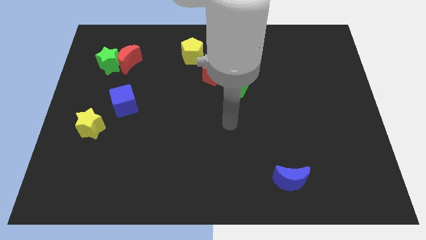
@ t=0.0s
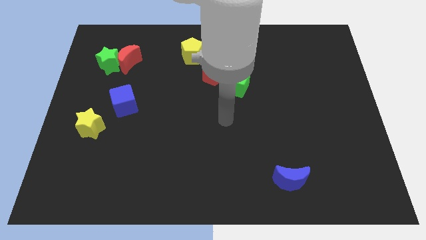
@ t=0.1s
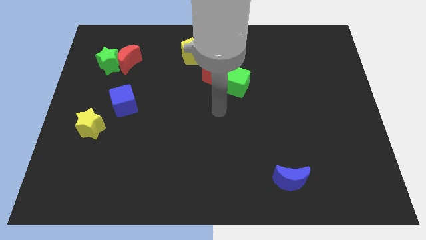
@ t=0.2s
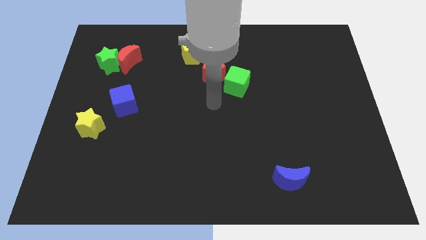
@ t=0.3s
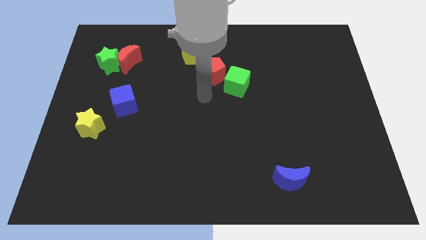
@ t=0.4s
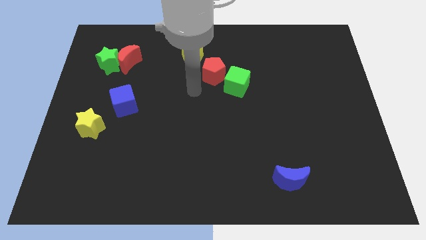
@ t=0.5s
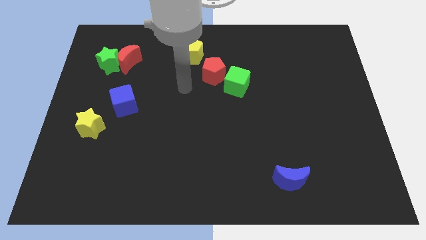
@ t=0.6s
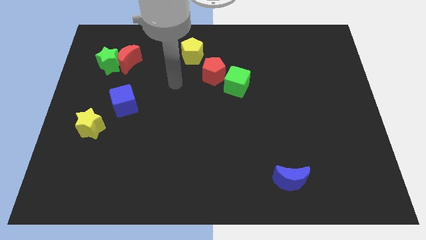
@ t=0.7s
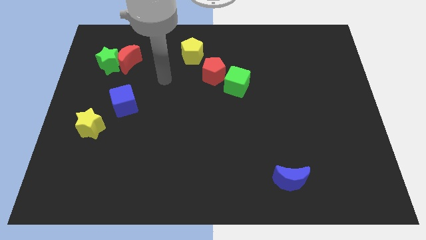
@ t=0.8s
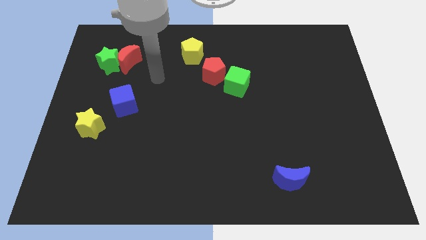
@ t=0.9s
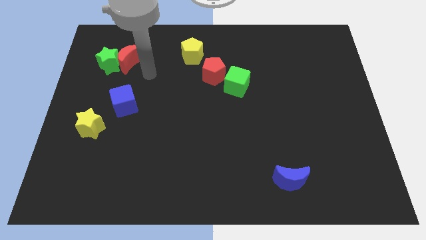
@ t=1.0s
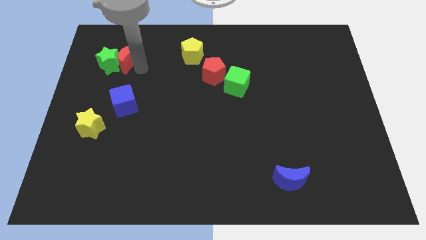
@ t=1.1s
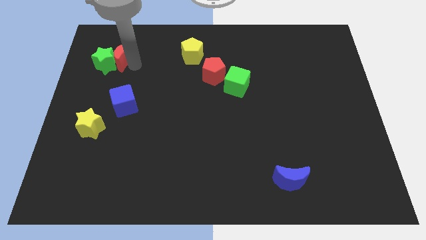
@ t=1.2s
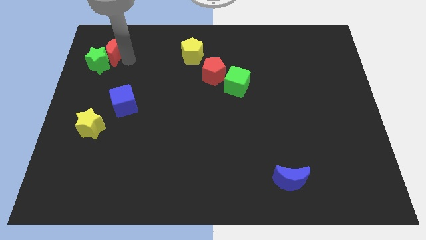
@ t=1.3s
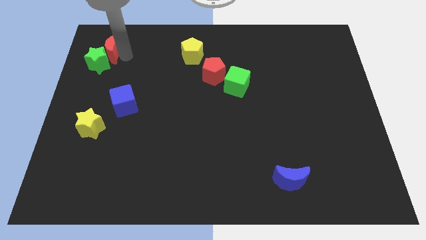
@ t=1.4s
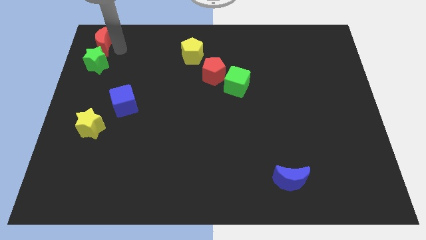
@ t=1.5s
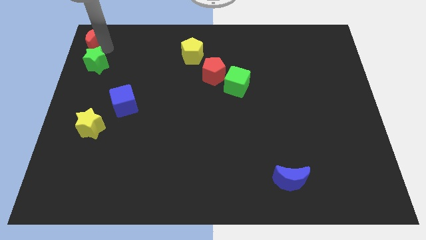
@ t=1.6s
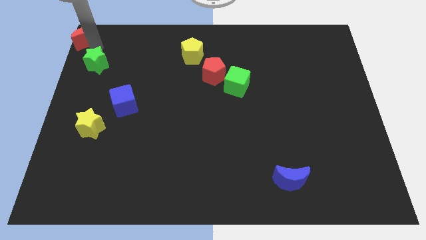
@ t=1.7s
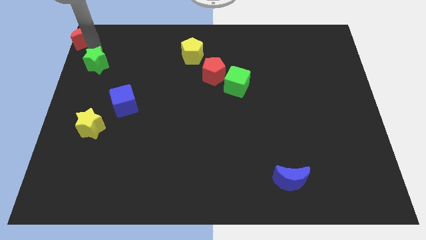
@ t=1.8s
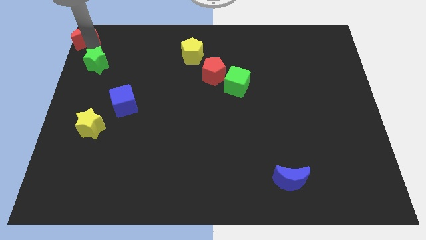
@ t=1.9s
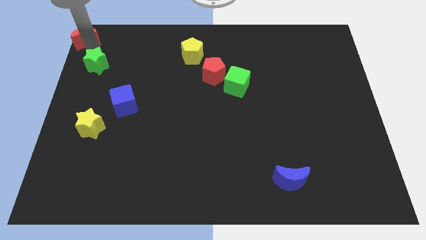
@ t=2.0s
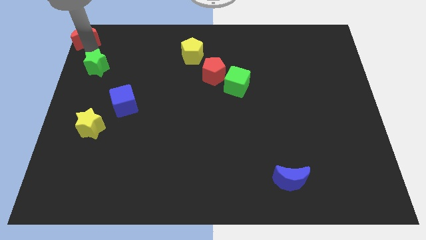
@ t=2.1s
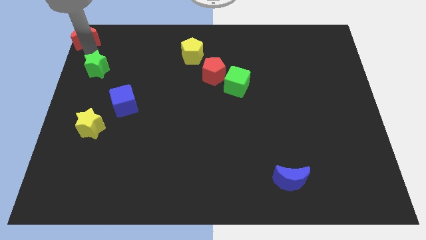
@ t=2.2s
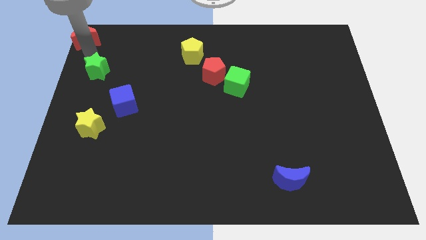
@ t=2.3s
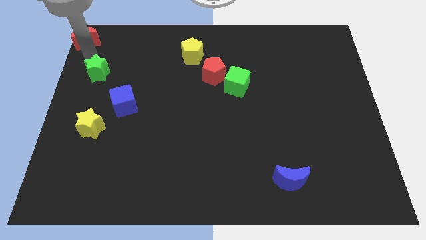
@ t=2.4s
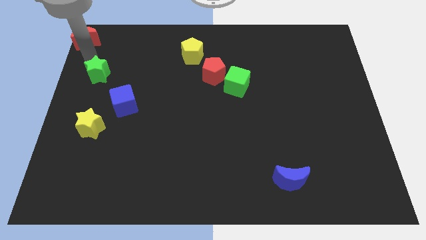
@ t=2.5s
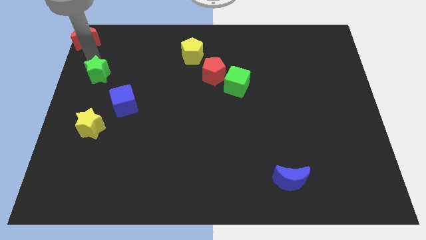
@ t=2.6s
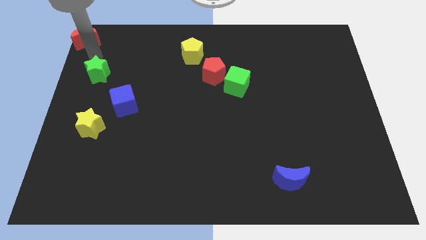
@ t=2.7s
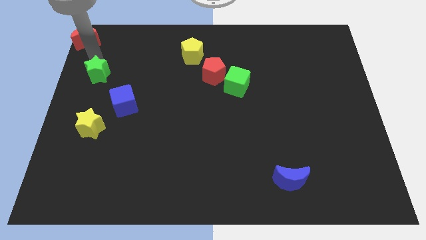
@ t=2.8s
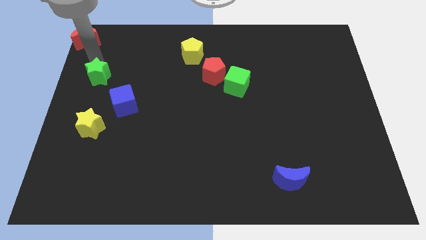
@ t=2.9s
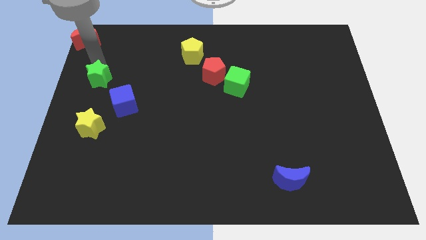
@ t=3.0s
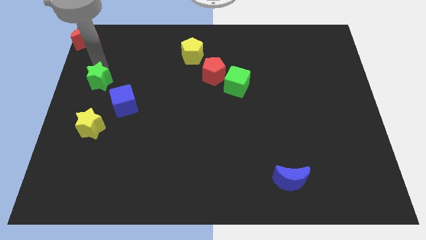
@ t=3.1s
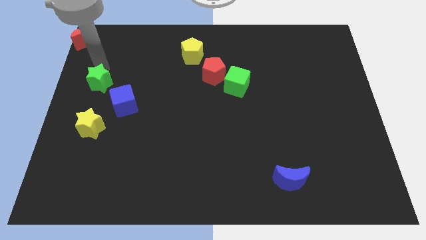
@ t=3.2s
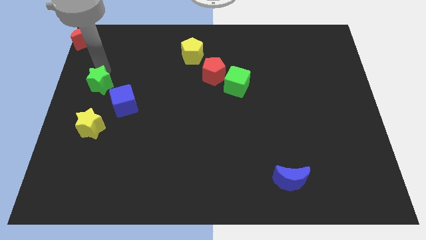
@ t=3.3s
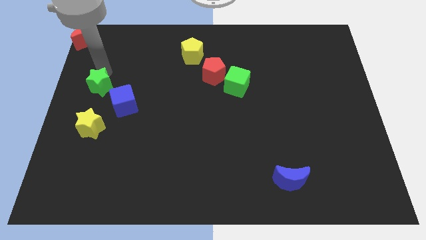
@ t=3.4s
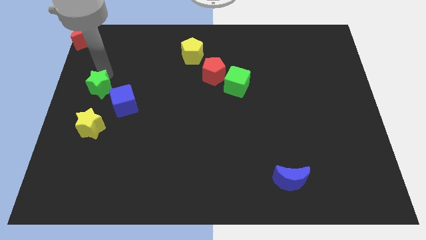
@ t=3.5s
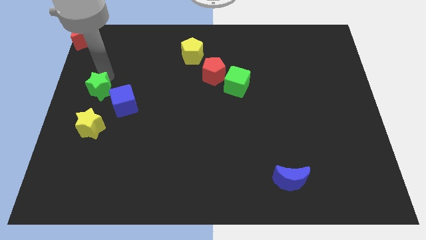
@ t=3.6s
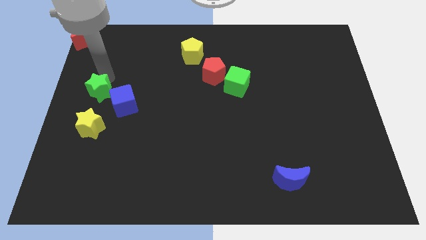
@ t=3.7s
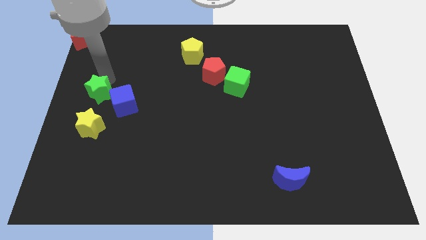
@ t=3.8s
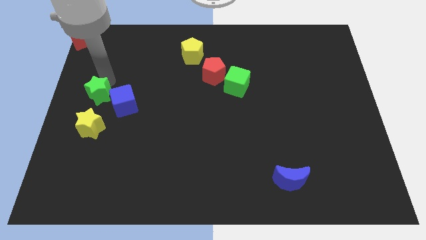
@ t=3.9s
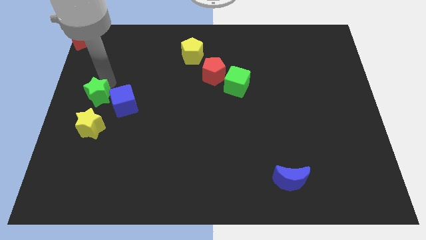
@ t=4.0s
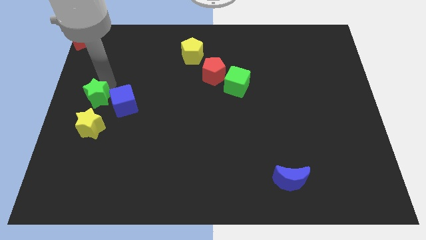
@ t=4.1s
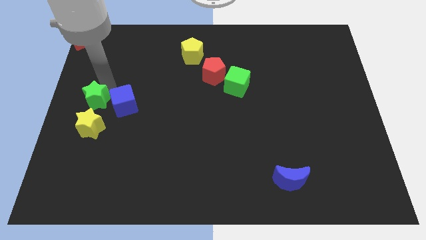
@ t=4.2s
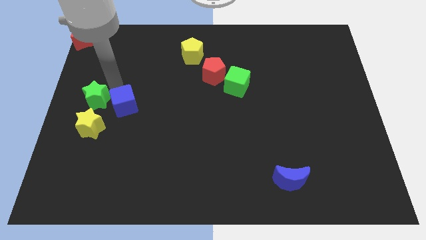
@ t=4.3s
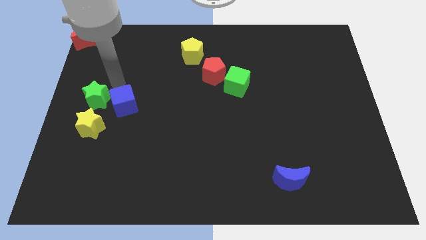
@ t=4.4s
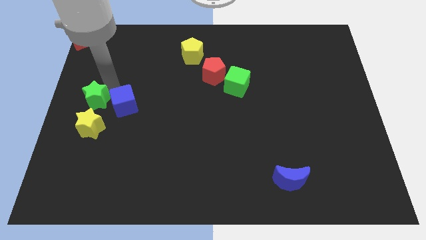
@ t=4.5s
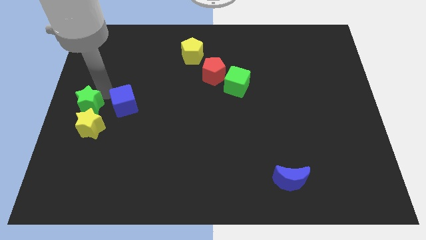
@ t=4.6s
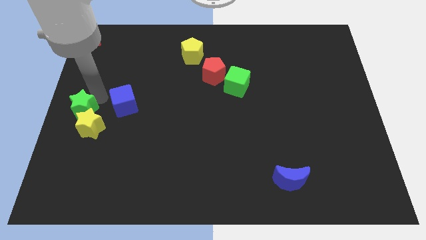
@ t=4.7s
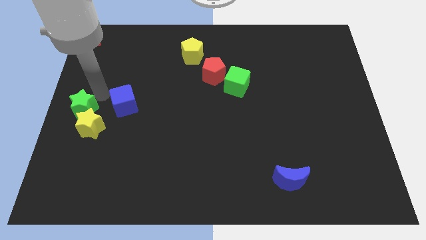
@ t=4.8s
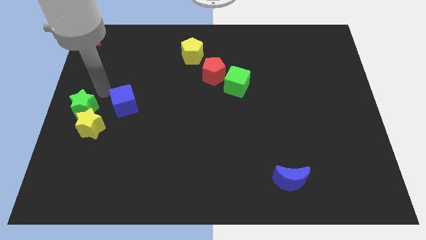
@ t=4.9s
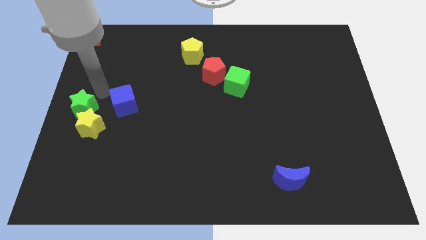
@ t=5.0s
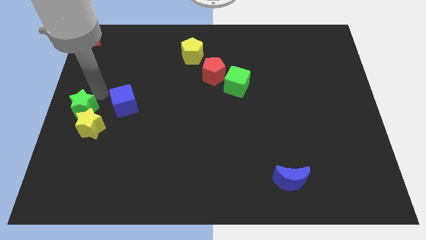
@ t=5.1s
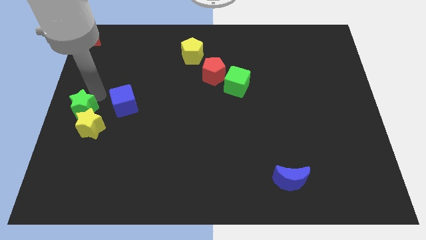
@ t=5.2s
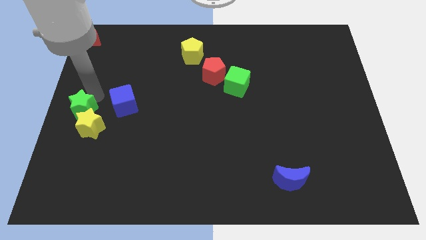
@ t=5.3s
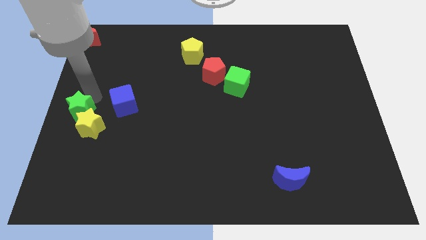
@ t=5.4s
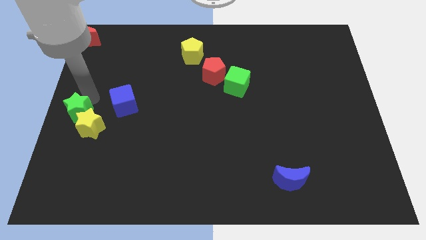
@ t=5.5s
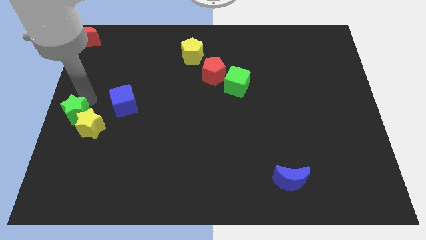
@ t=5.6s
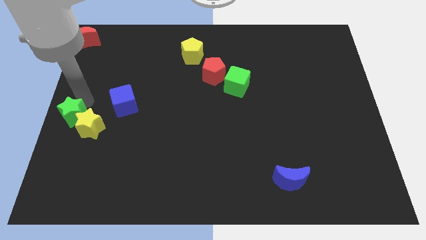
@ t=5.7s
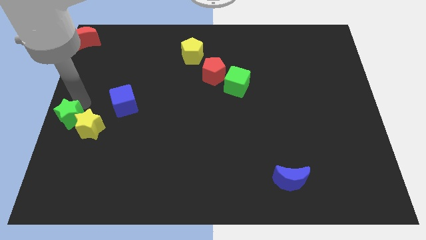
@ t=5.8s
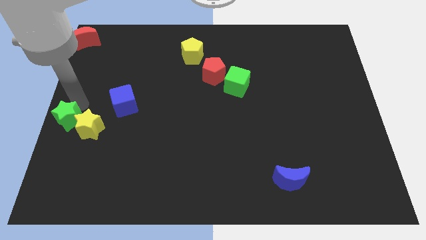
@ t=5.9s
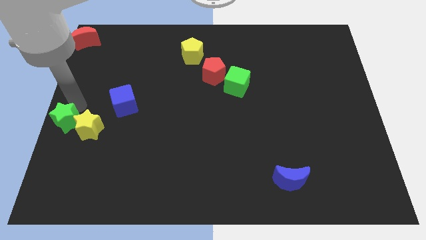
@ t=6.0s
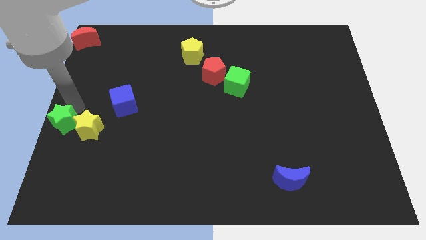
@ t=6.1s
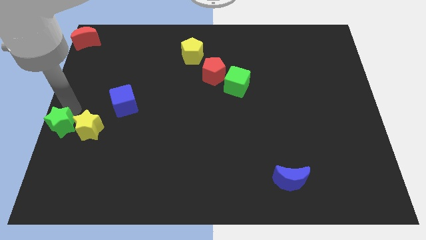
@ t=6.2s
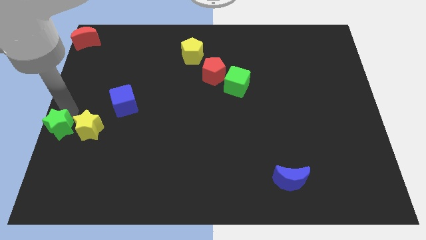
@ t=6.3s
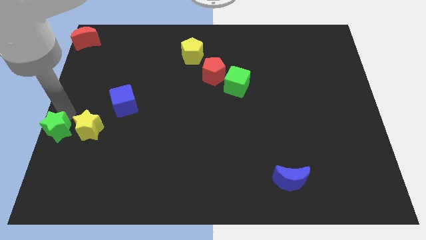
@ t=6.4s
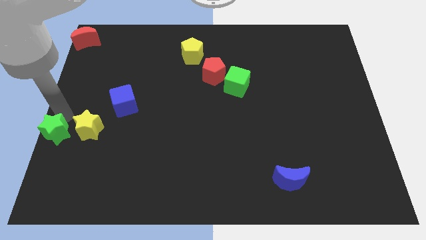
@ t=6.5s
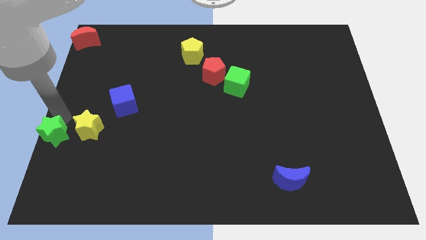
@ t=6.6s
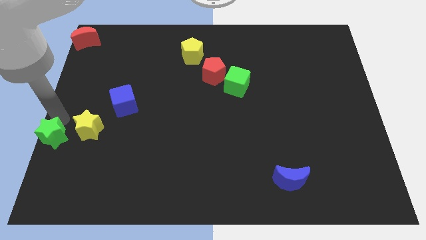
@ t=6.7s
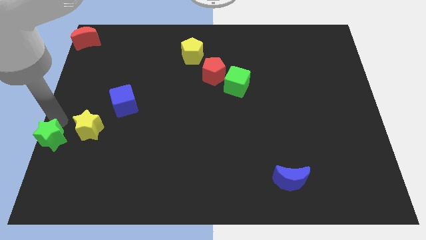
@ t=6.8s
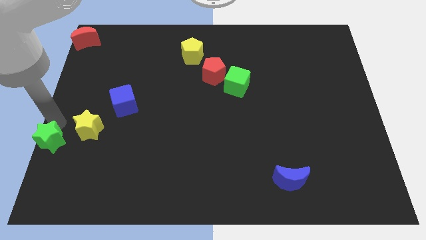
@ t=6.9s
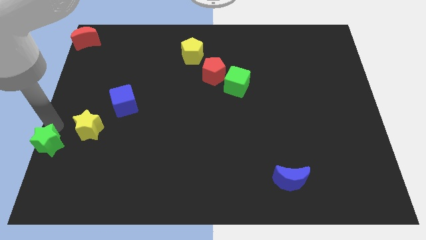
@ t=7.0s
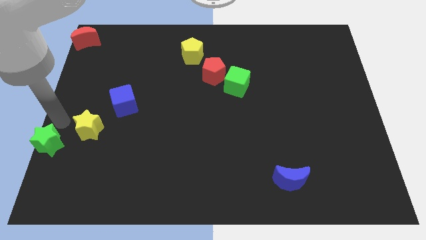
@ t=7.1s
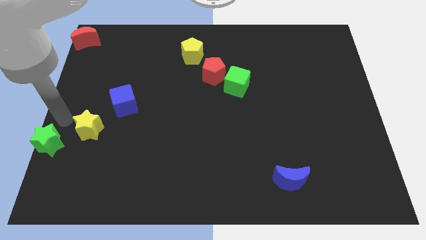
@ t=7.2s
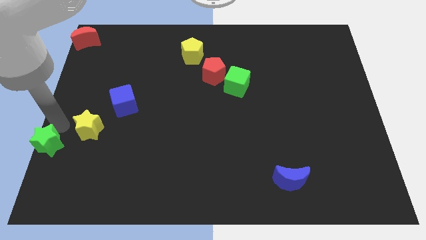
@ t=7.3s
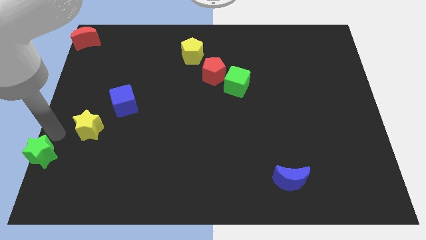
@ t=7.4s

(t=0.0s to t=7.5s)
push the green star to the bottom left corner
